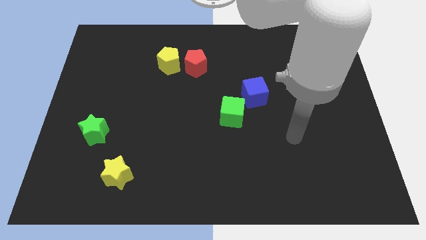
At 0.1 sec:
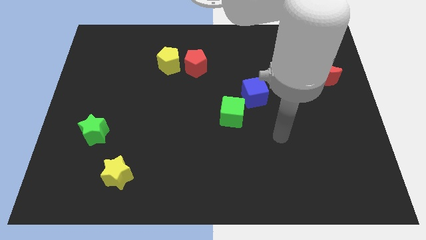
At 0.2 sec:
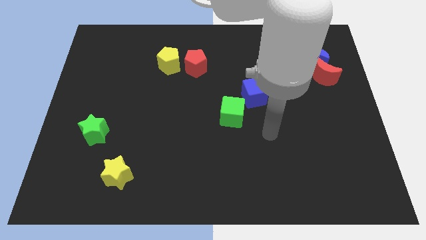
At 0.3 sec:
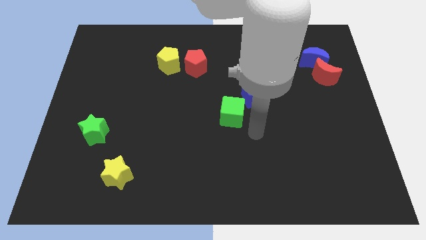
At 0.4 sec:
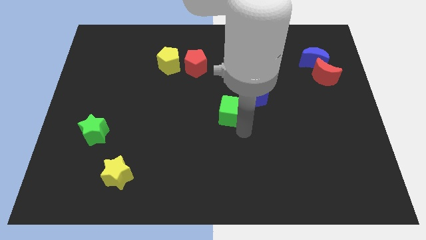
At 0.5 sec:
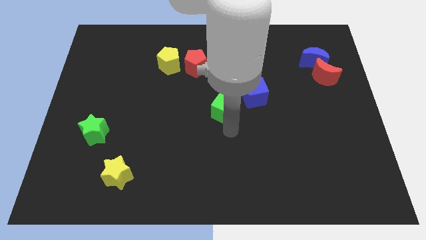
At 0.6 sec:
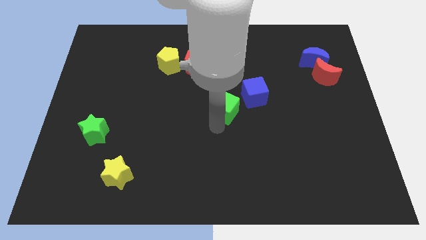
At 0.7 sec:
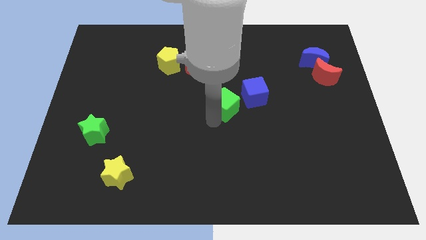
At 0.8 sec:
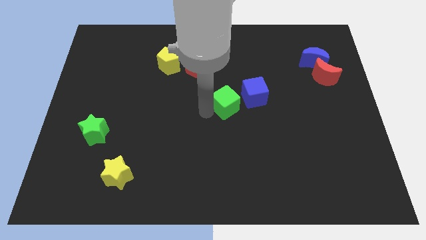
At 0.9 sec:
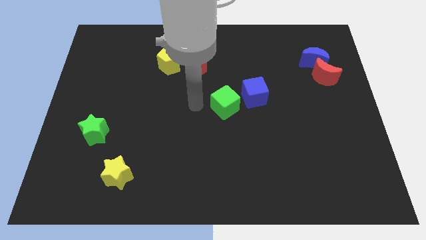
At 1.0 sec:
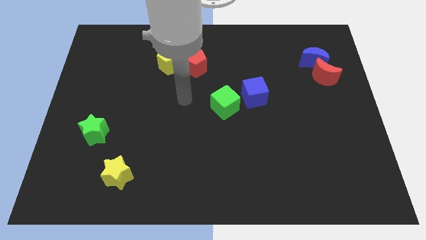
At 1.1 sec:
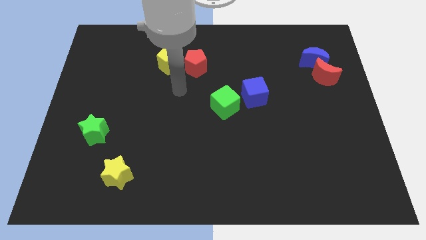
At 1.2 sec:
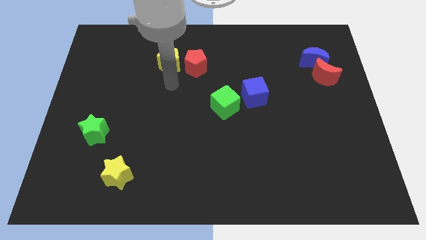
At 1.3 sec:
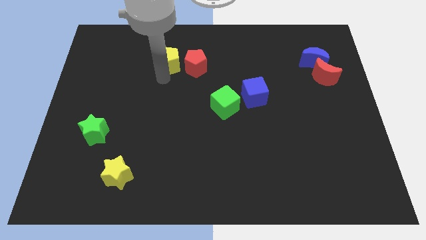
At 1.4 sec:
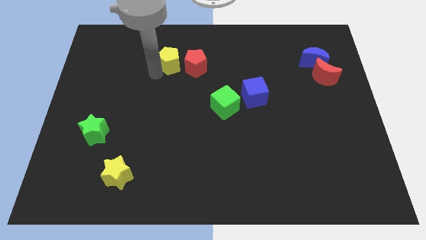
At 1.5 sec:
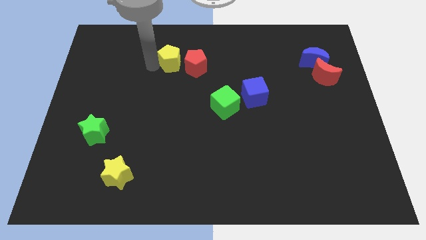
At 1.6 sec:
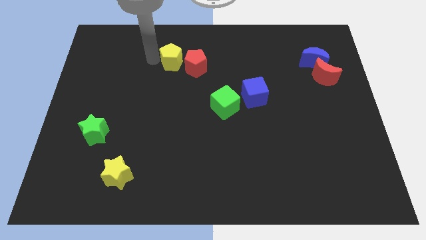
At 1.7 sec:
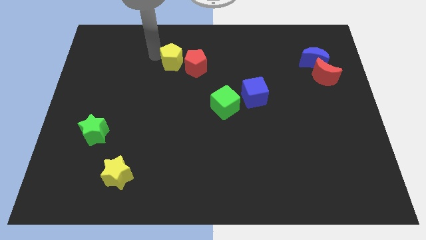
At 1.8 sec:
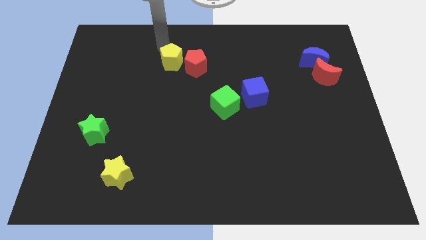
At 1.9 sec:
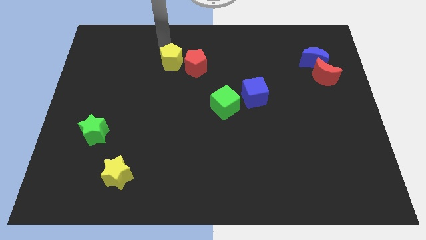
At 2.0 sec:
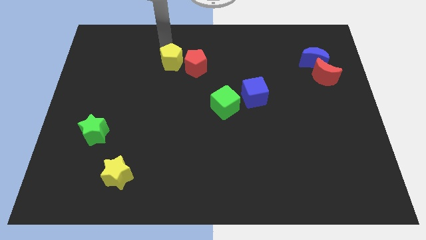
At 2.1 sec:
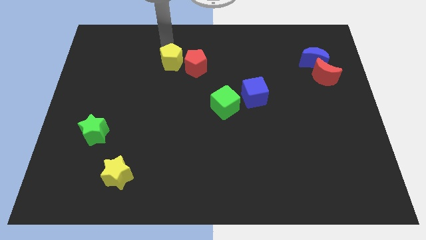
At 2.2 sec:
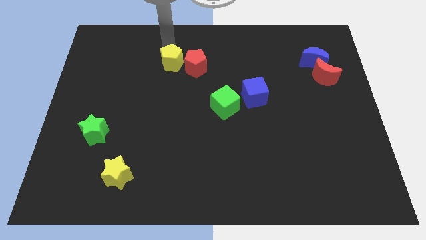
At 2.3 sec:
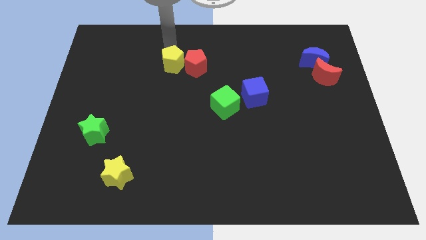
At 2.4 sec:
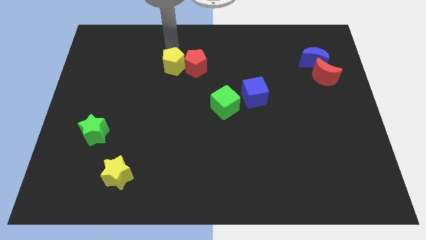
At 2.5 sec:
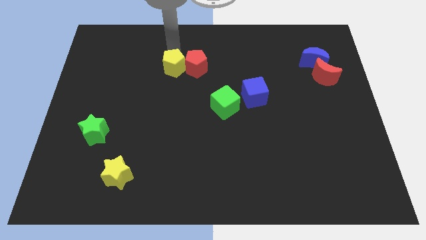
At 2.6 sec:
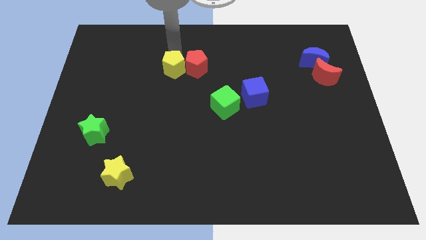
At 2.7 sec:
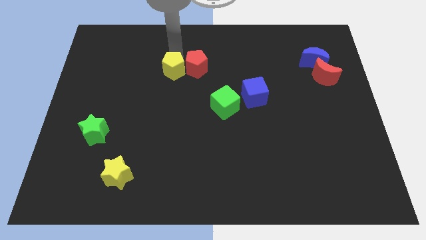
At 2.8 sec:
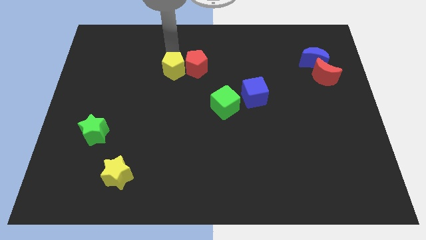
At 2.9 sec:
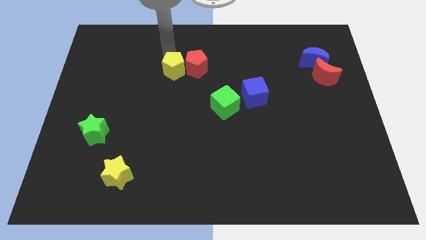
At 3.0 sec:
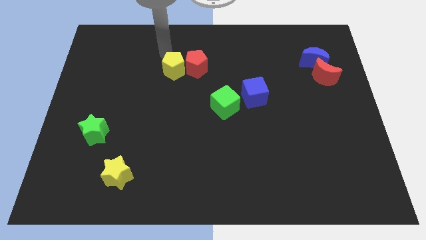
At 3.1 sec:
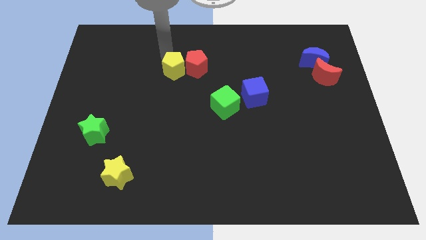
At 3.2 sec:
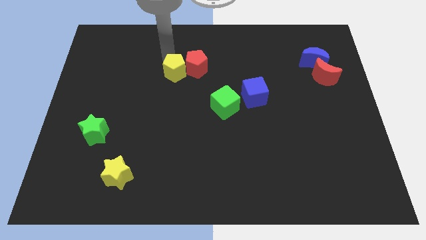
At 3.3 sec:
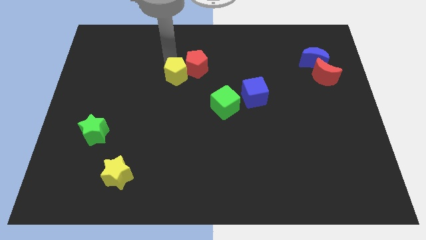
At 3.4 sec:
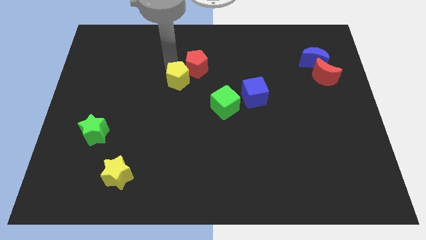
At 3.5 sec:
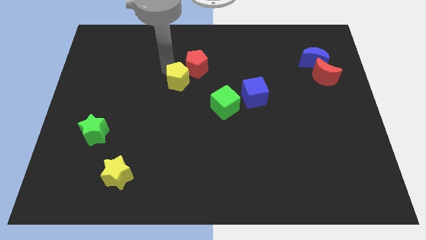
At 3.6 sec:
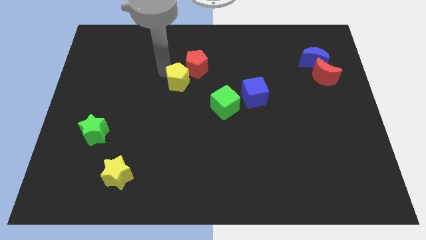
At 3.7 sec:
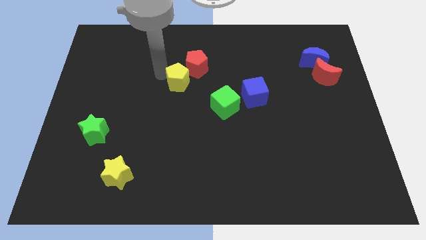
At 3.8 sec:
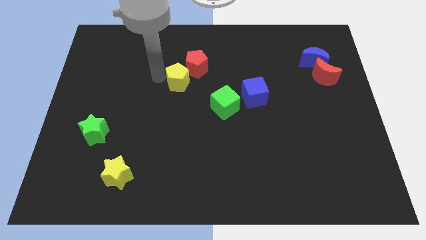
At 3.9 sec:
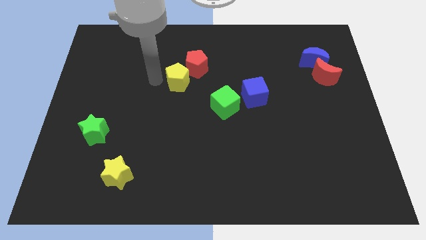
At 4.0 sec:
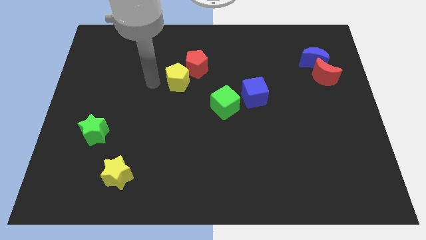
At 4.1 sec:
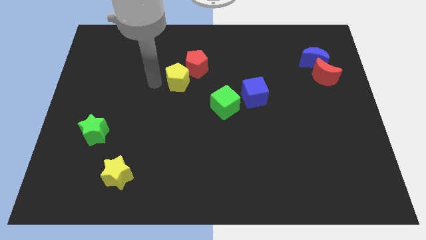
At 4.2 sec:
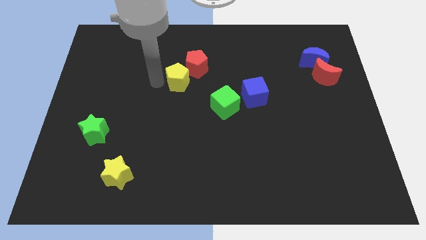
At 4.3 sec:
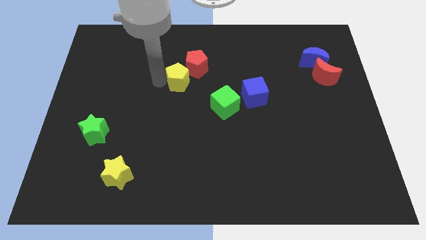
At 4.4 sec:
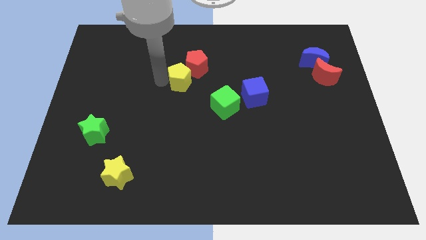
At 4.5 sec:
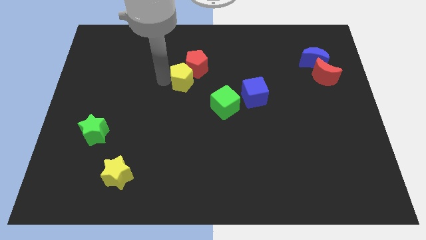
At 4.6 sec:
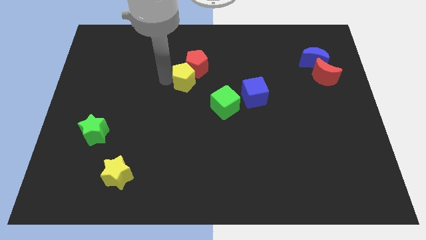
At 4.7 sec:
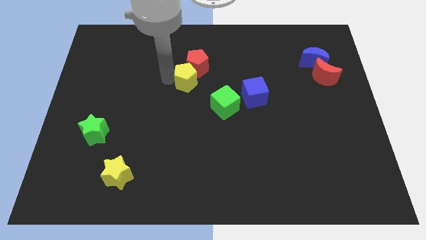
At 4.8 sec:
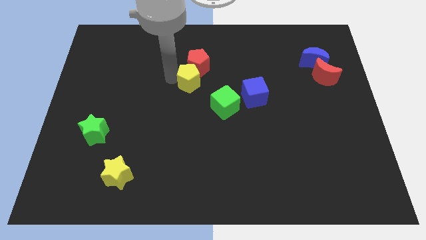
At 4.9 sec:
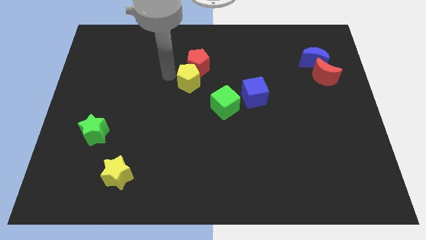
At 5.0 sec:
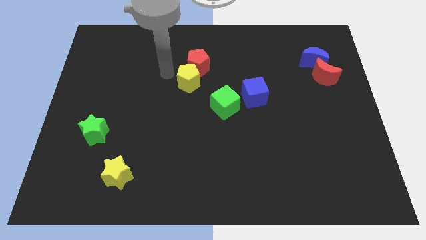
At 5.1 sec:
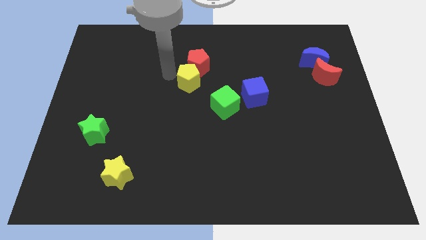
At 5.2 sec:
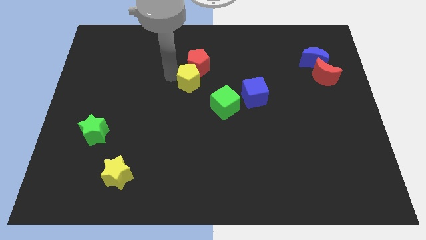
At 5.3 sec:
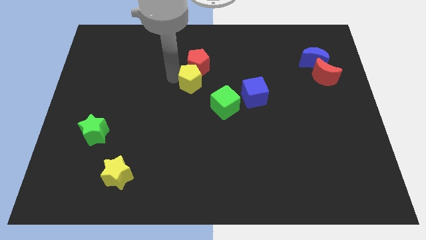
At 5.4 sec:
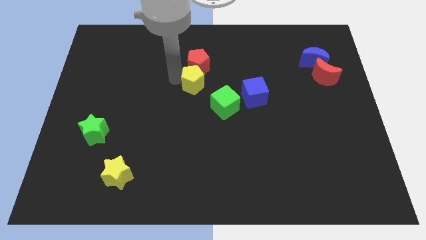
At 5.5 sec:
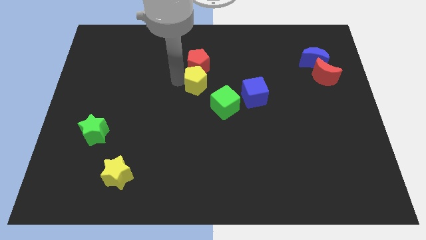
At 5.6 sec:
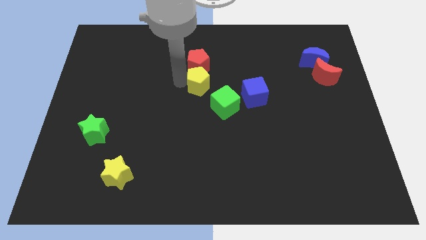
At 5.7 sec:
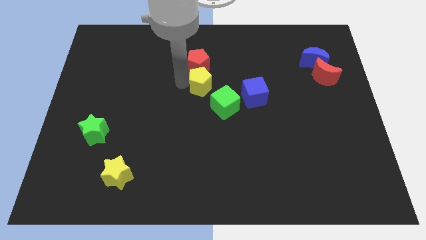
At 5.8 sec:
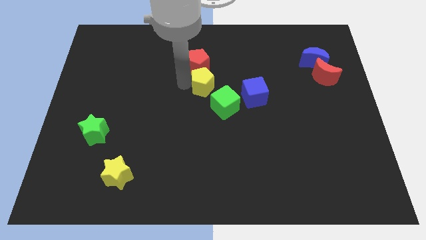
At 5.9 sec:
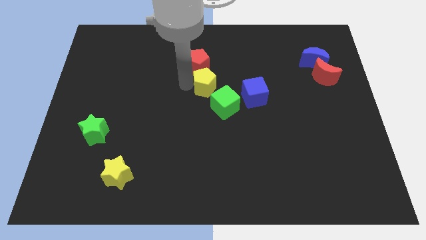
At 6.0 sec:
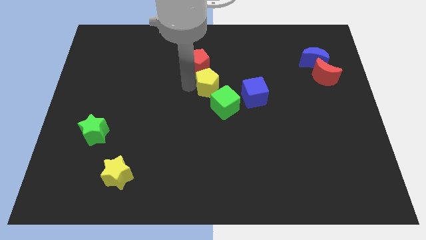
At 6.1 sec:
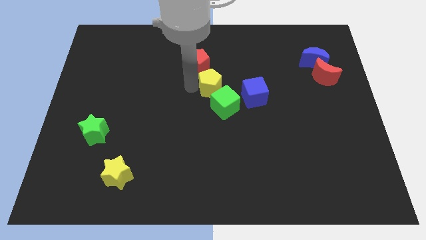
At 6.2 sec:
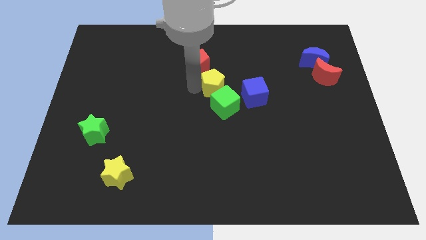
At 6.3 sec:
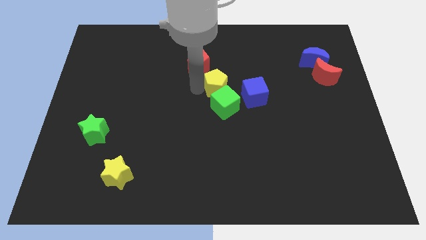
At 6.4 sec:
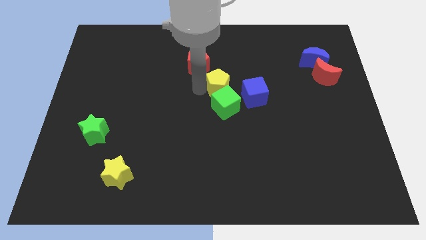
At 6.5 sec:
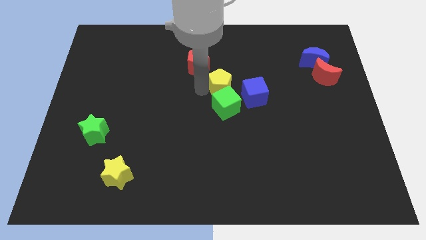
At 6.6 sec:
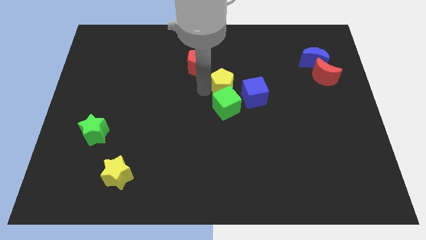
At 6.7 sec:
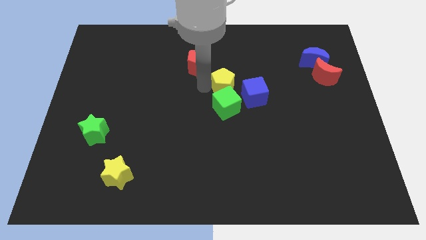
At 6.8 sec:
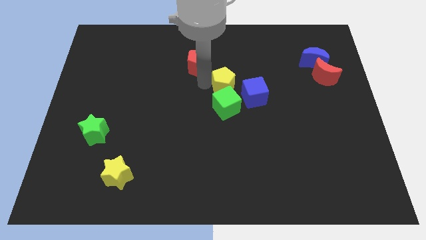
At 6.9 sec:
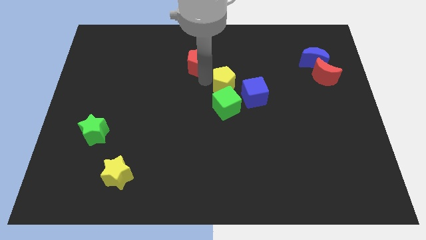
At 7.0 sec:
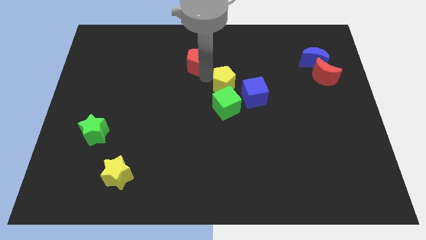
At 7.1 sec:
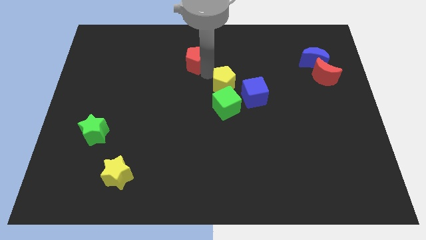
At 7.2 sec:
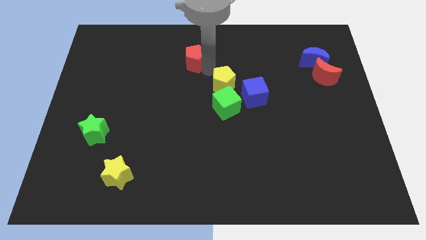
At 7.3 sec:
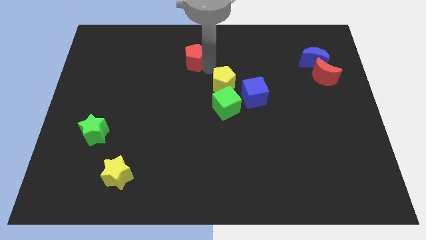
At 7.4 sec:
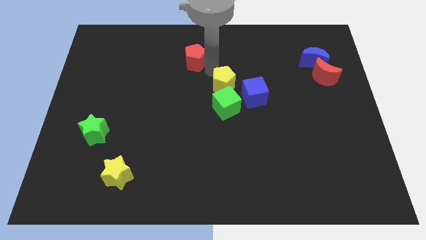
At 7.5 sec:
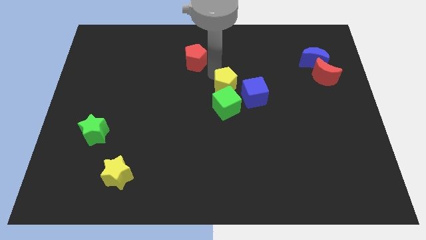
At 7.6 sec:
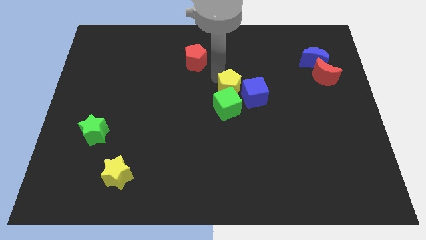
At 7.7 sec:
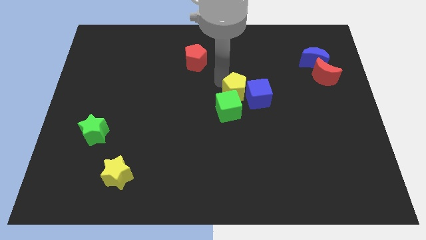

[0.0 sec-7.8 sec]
move the yellow pentagon close to the blue cube
